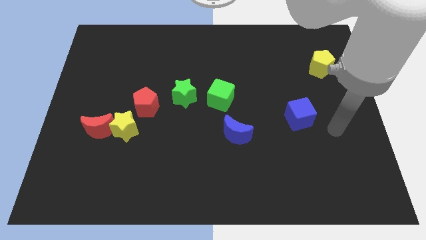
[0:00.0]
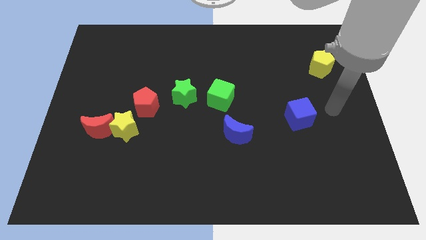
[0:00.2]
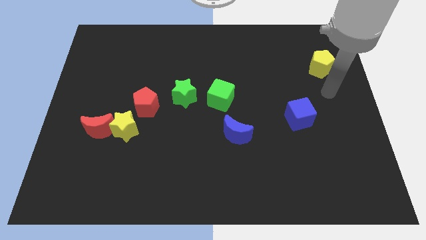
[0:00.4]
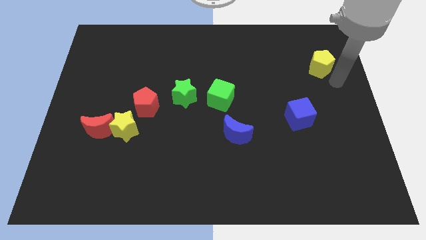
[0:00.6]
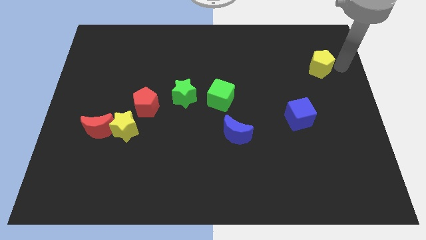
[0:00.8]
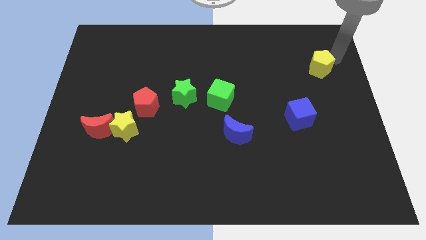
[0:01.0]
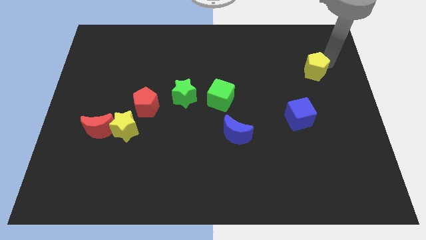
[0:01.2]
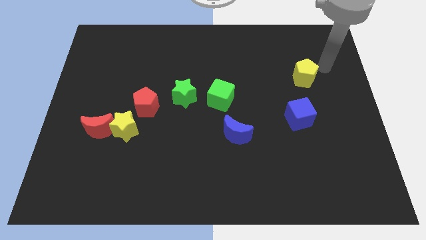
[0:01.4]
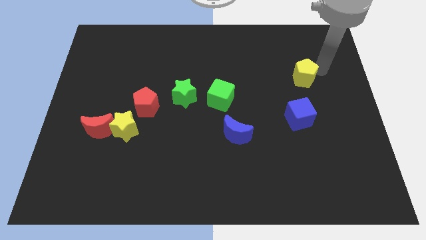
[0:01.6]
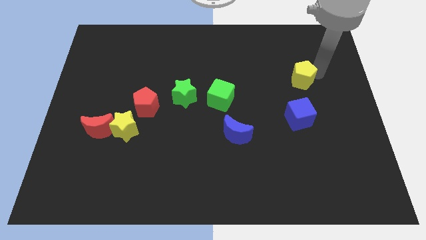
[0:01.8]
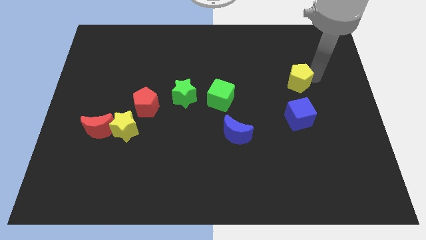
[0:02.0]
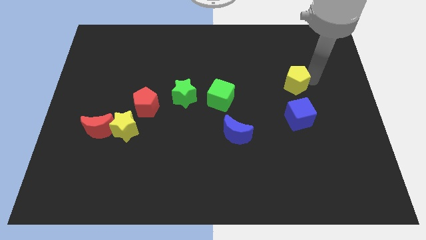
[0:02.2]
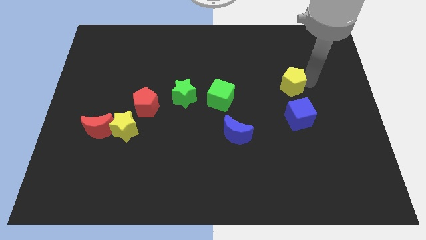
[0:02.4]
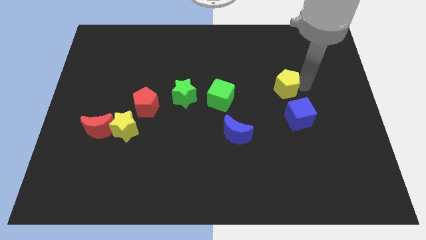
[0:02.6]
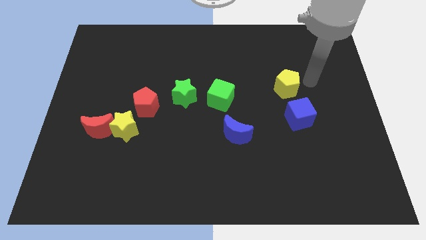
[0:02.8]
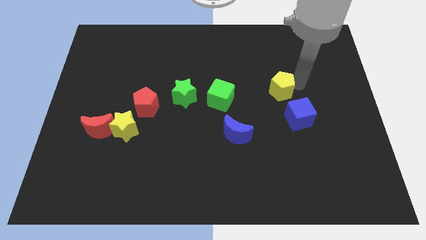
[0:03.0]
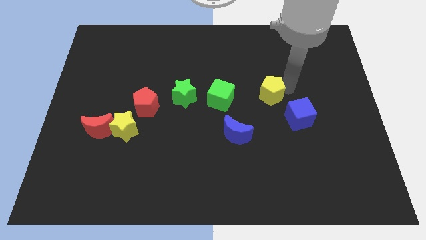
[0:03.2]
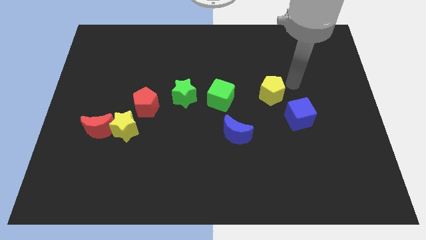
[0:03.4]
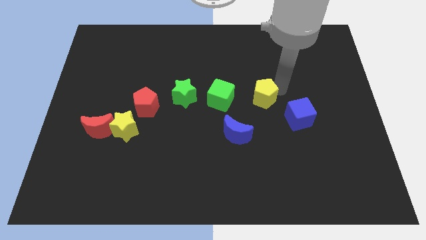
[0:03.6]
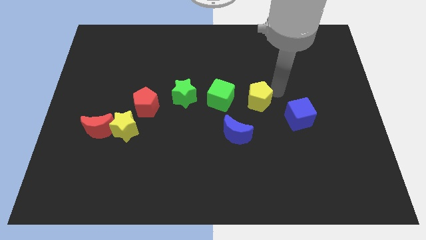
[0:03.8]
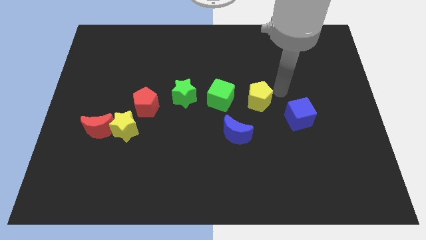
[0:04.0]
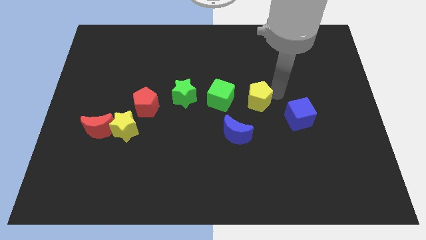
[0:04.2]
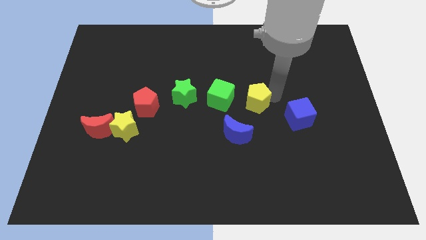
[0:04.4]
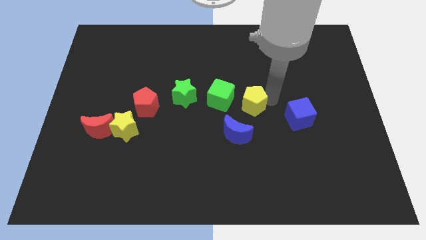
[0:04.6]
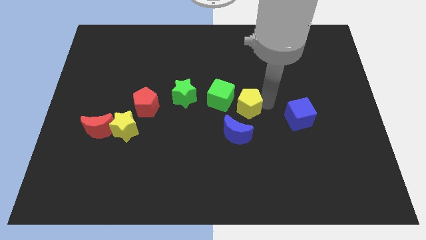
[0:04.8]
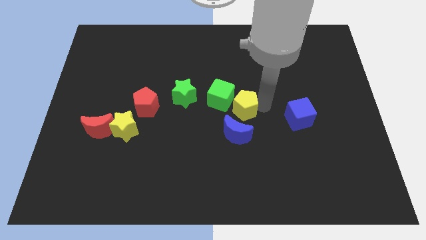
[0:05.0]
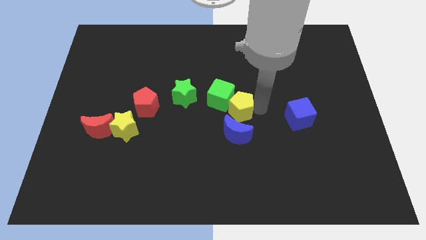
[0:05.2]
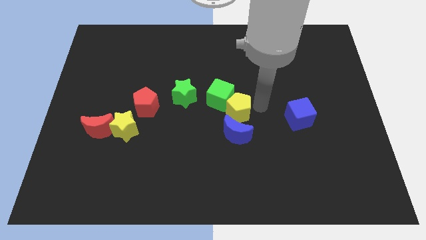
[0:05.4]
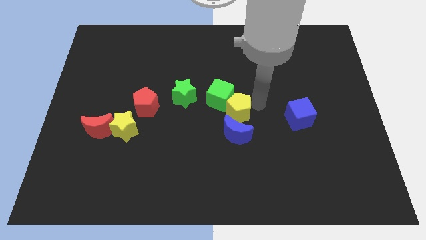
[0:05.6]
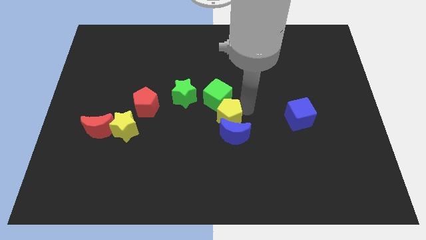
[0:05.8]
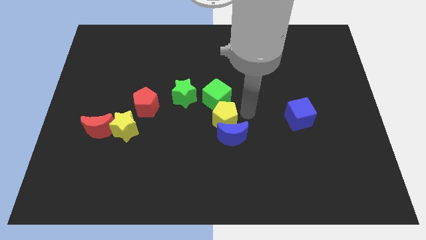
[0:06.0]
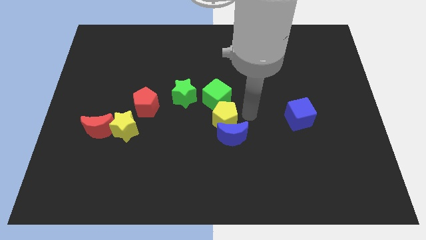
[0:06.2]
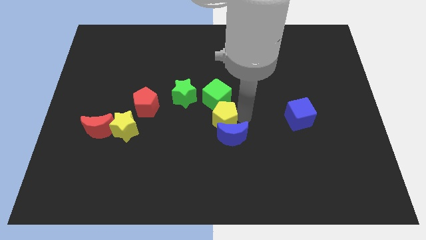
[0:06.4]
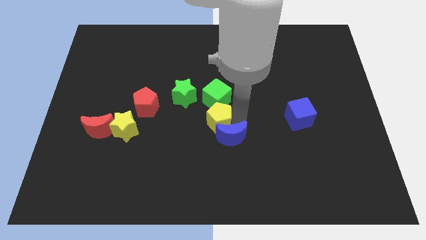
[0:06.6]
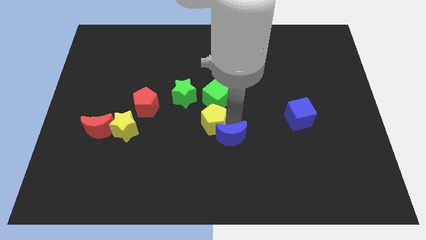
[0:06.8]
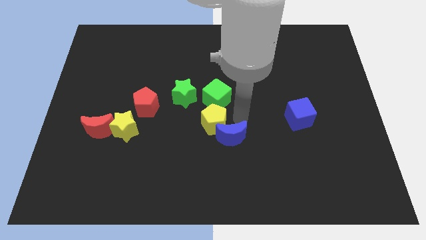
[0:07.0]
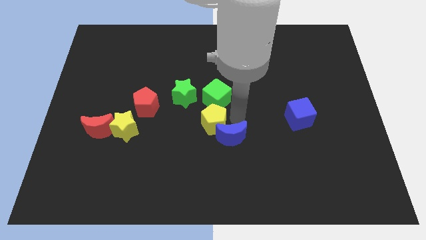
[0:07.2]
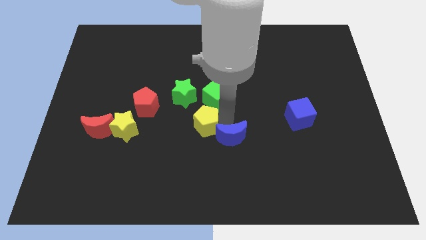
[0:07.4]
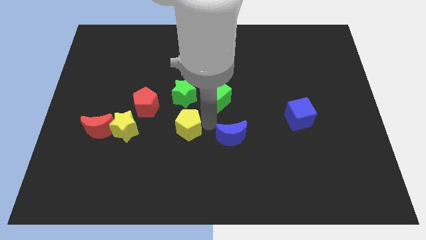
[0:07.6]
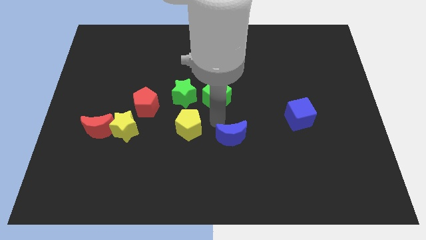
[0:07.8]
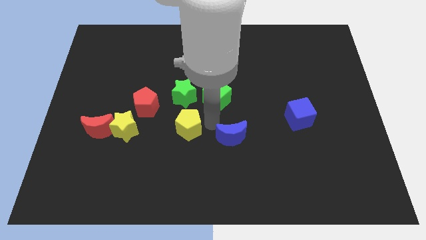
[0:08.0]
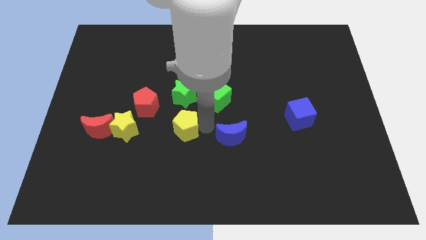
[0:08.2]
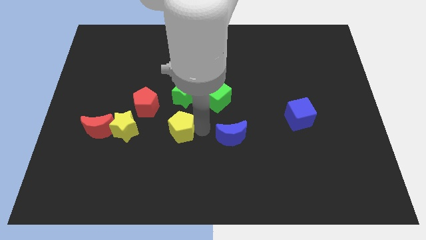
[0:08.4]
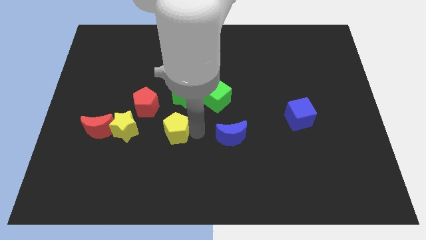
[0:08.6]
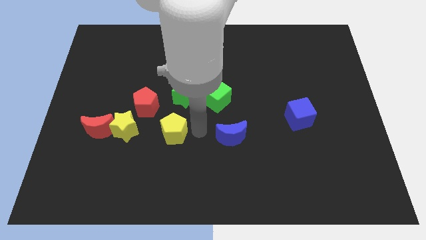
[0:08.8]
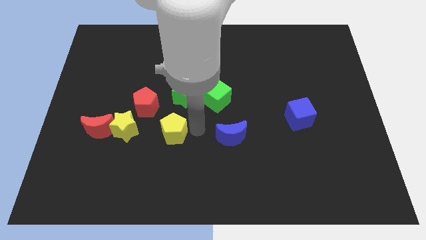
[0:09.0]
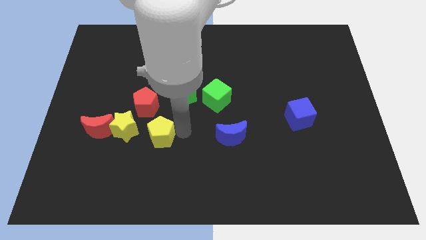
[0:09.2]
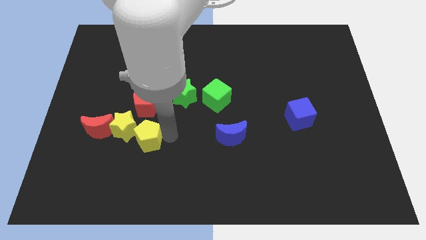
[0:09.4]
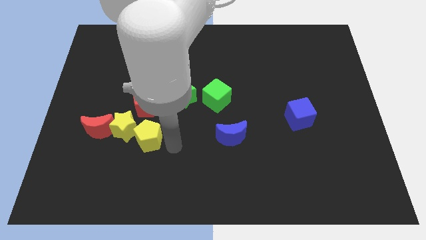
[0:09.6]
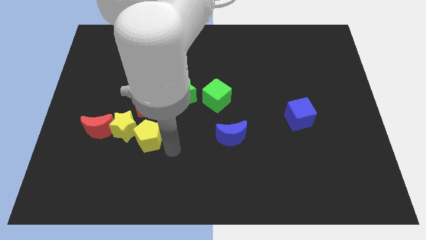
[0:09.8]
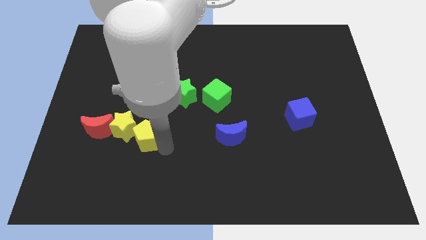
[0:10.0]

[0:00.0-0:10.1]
slide the yellow pentagon close to the yellow star

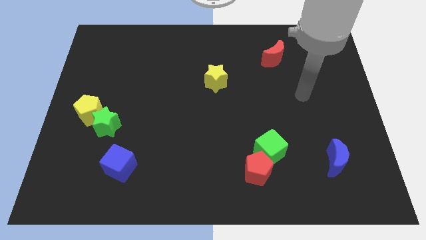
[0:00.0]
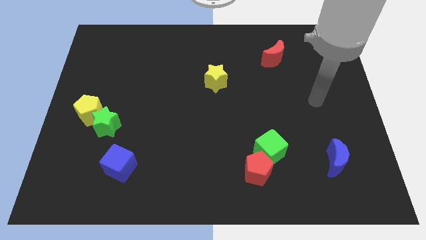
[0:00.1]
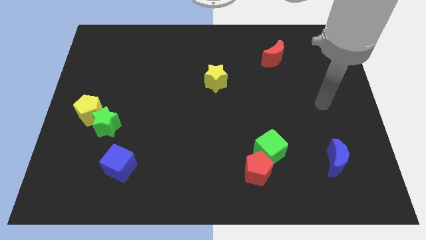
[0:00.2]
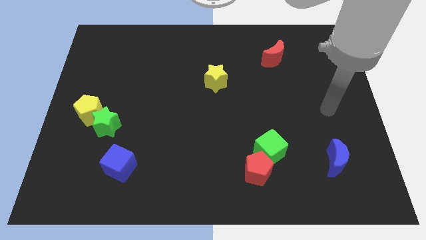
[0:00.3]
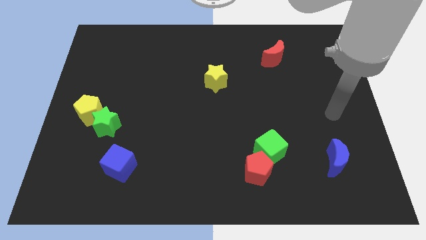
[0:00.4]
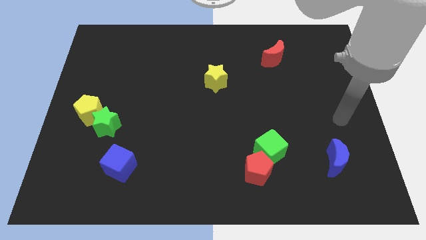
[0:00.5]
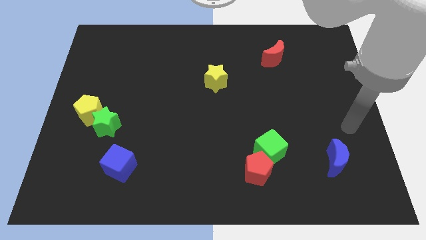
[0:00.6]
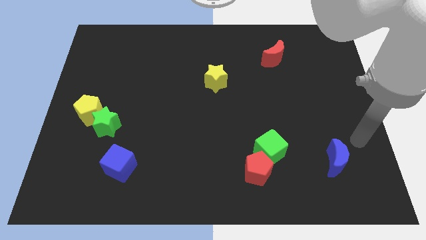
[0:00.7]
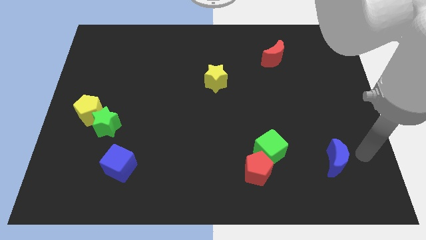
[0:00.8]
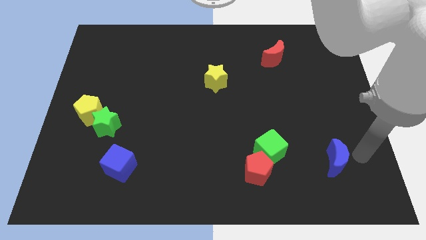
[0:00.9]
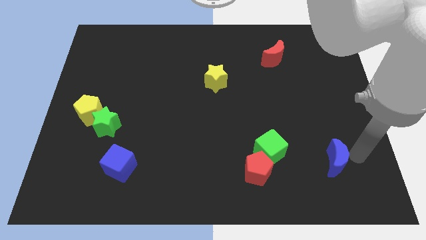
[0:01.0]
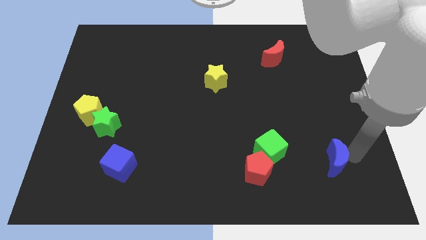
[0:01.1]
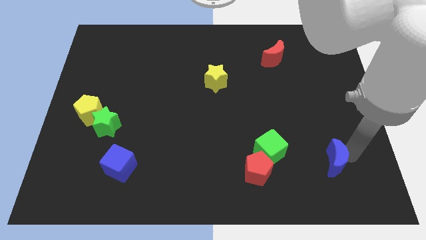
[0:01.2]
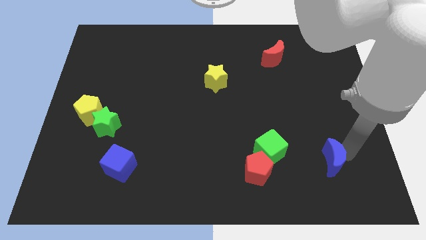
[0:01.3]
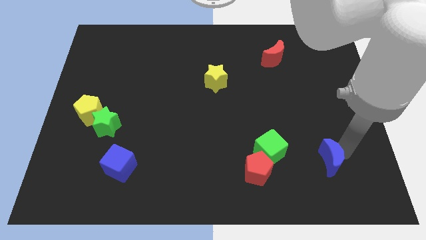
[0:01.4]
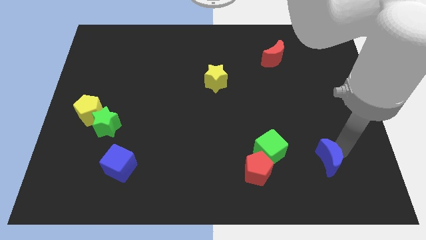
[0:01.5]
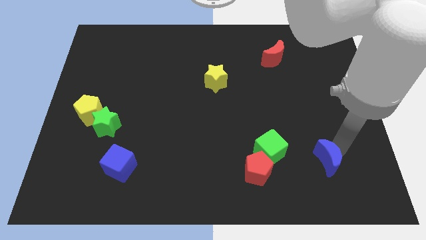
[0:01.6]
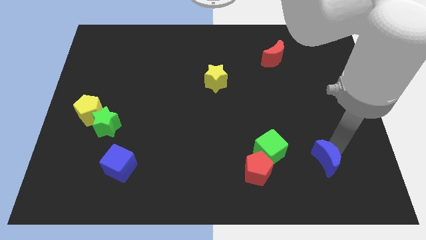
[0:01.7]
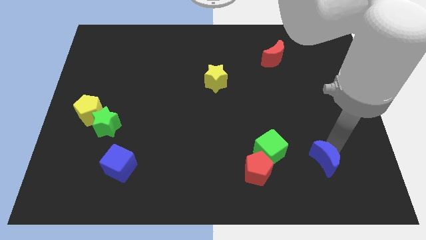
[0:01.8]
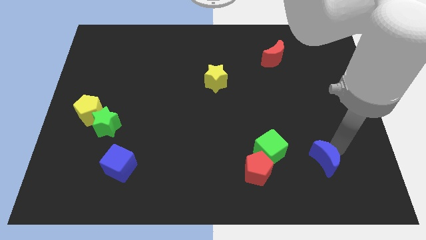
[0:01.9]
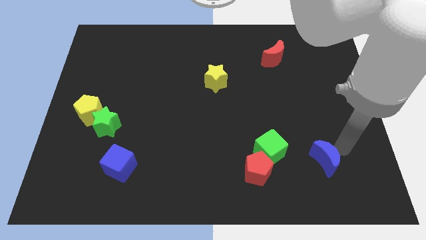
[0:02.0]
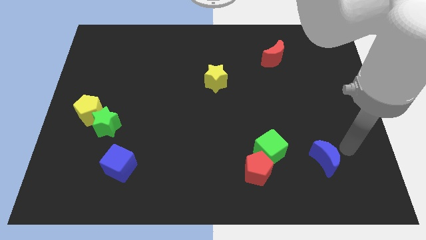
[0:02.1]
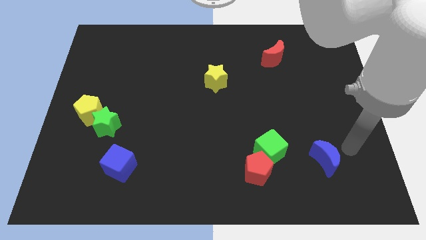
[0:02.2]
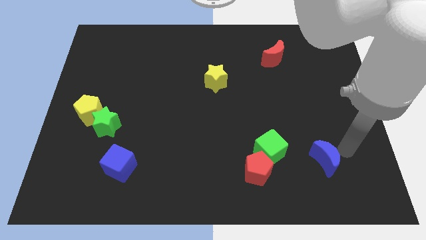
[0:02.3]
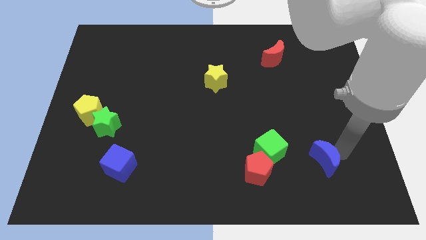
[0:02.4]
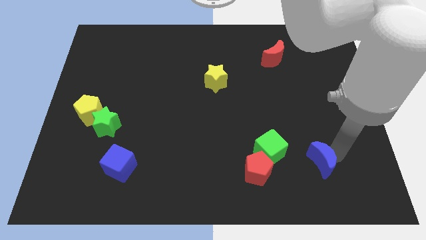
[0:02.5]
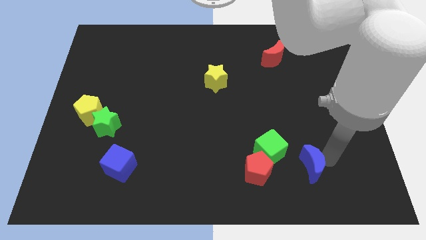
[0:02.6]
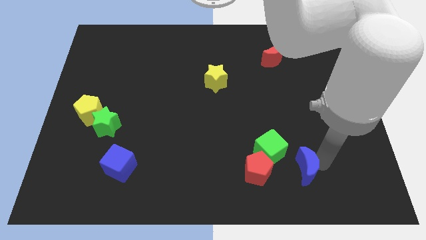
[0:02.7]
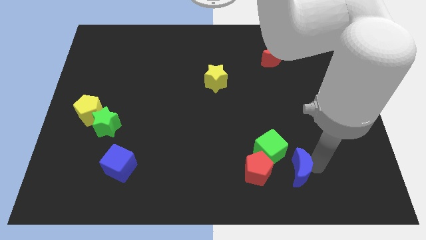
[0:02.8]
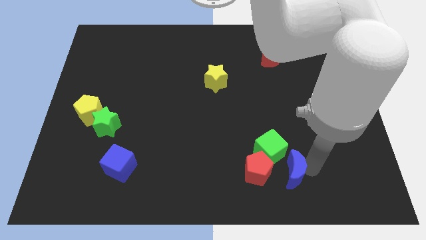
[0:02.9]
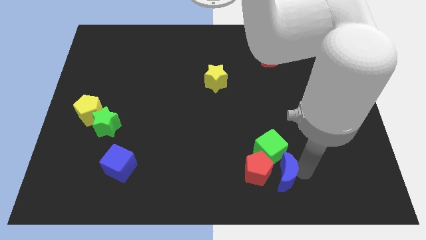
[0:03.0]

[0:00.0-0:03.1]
push the blue moon towards the red pentagon
